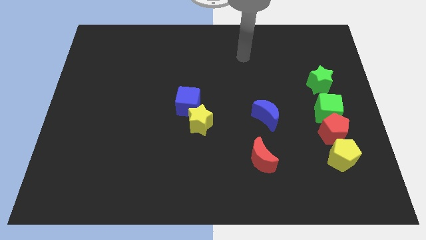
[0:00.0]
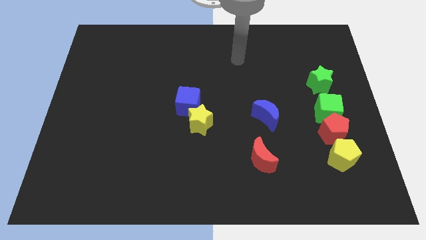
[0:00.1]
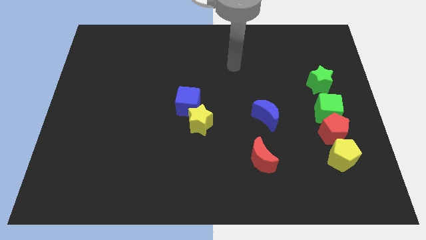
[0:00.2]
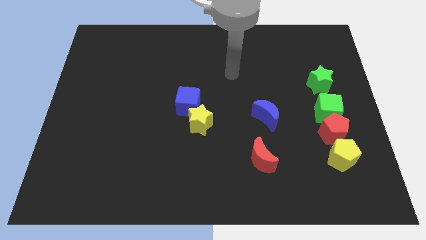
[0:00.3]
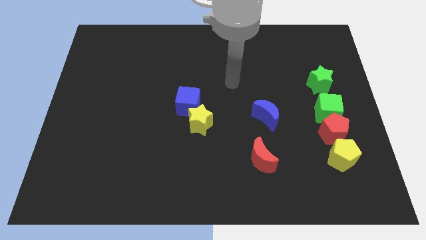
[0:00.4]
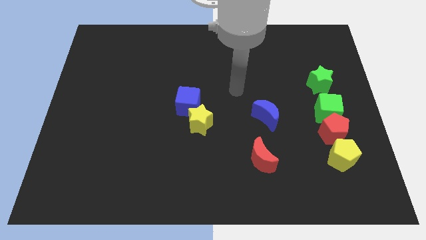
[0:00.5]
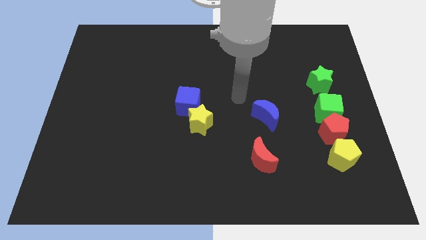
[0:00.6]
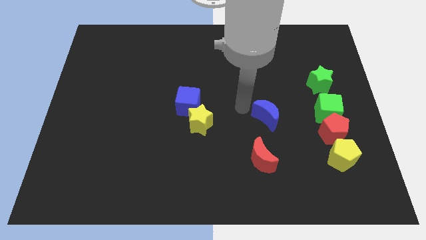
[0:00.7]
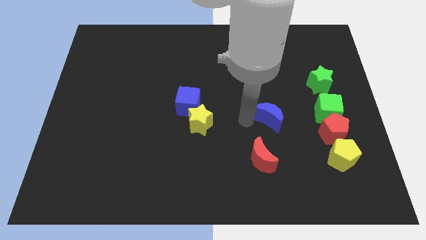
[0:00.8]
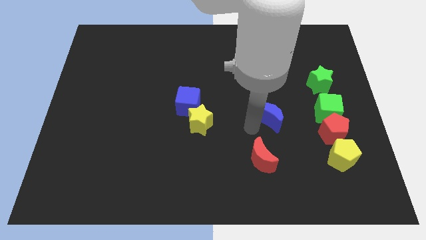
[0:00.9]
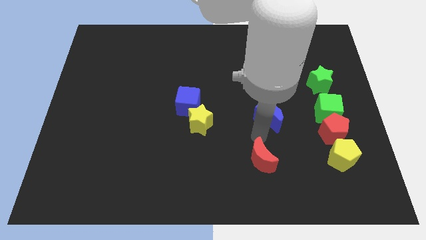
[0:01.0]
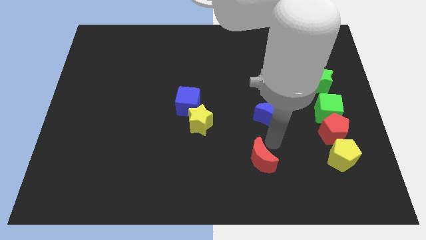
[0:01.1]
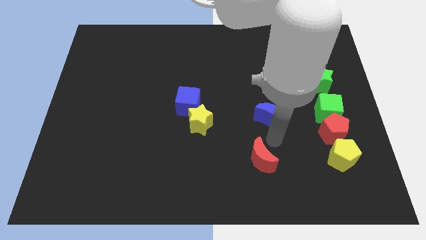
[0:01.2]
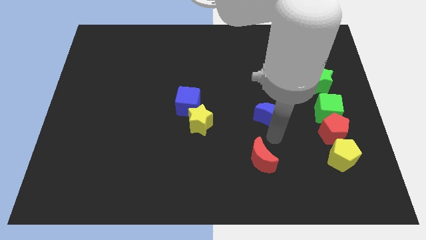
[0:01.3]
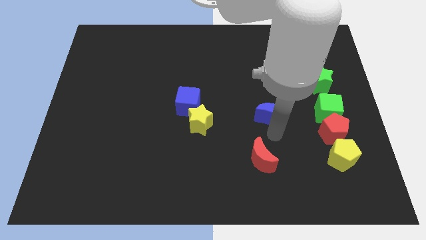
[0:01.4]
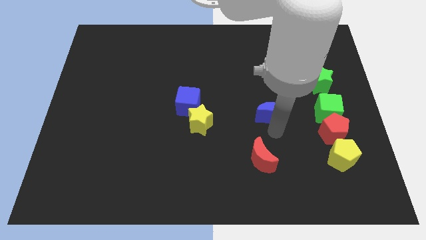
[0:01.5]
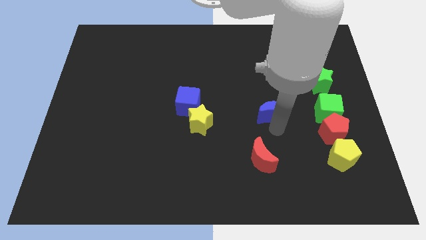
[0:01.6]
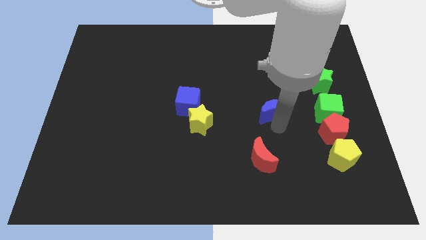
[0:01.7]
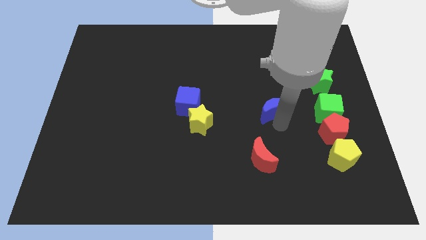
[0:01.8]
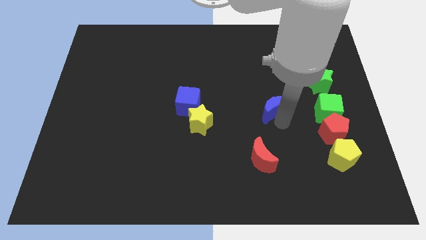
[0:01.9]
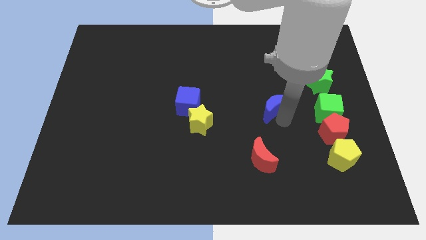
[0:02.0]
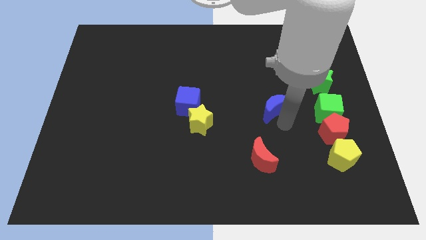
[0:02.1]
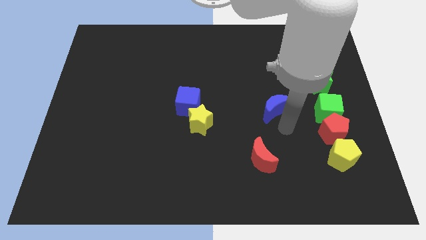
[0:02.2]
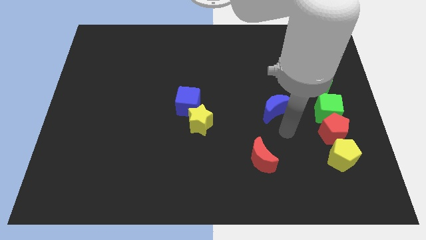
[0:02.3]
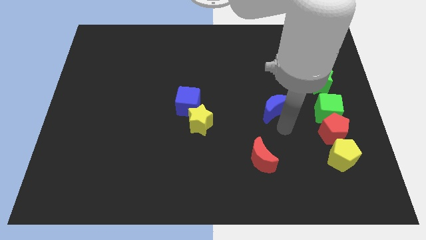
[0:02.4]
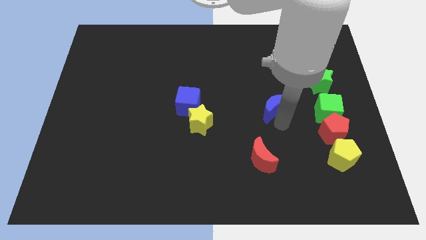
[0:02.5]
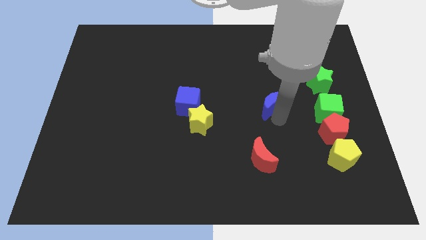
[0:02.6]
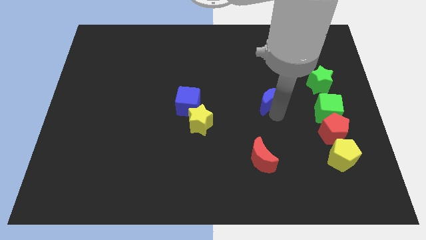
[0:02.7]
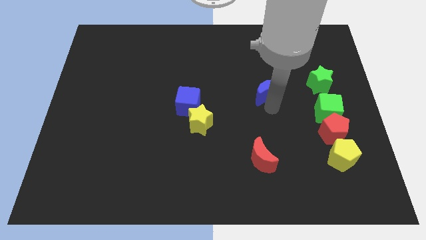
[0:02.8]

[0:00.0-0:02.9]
slightly move the blue moon up

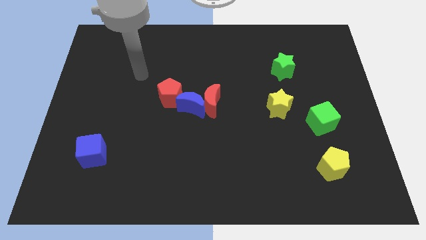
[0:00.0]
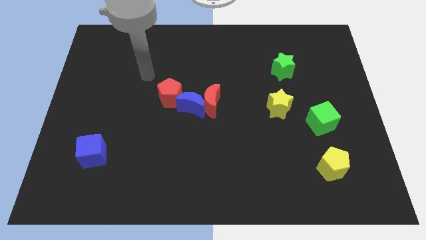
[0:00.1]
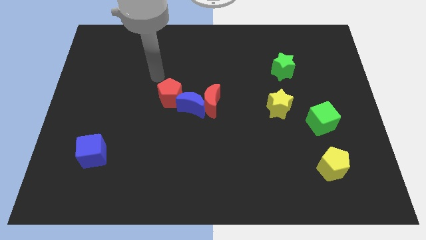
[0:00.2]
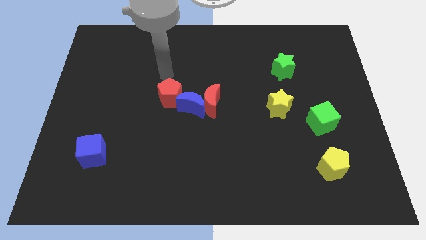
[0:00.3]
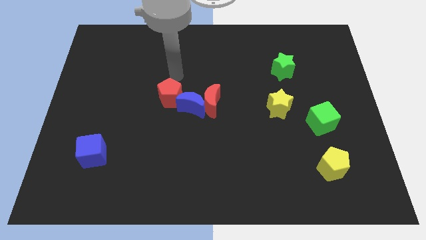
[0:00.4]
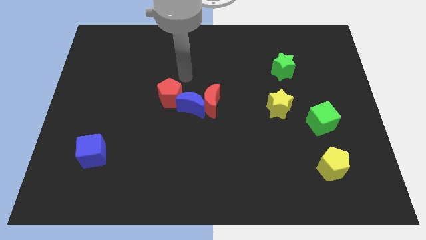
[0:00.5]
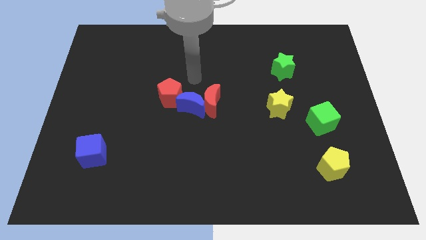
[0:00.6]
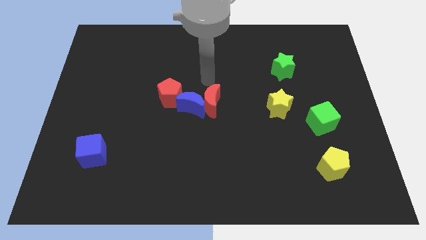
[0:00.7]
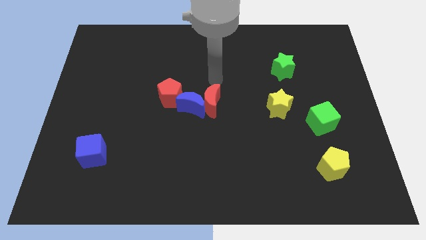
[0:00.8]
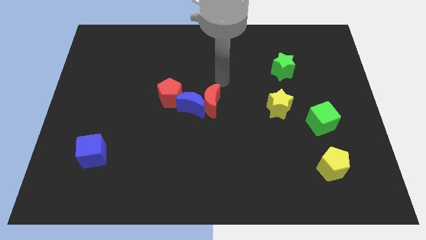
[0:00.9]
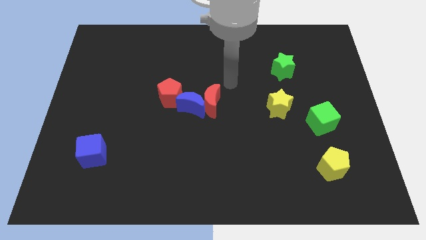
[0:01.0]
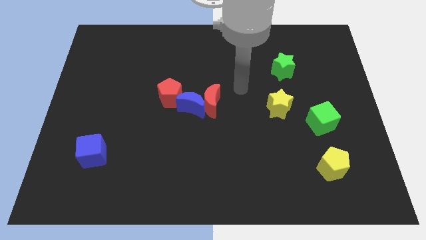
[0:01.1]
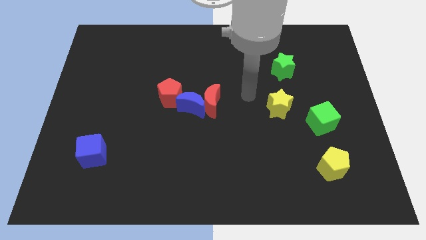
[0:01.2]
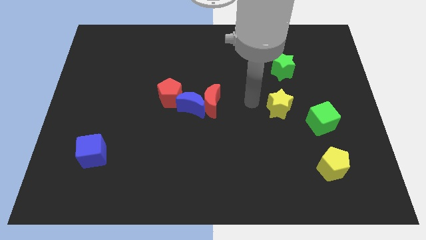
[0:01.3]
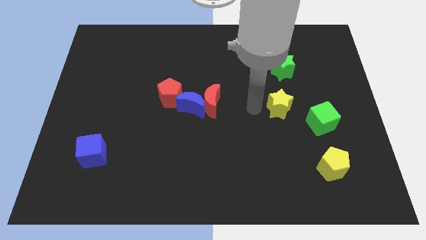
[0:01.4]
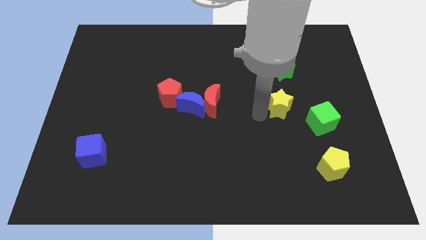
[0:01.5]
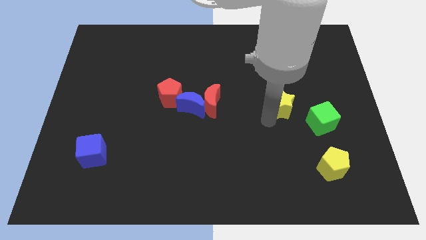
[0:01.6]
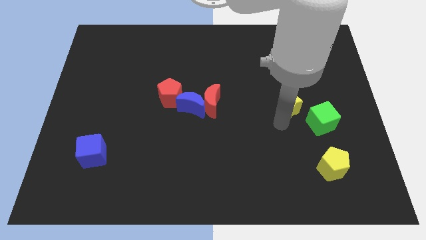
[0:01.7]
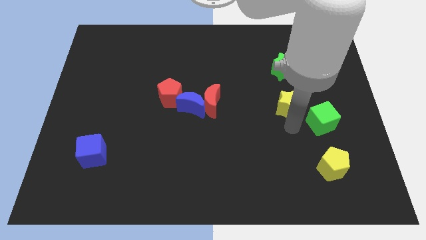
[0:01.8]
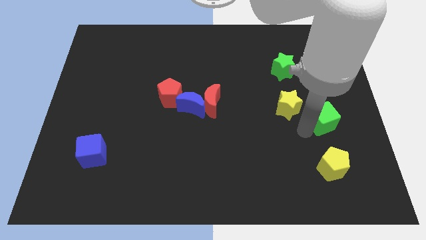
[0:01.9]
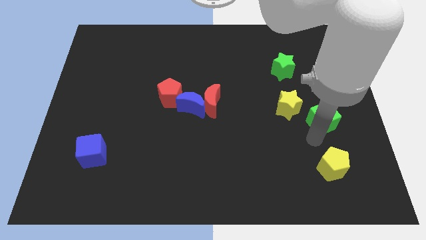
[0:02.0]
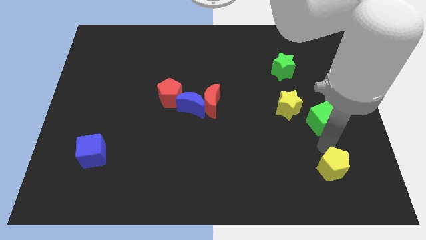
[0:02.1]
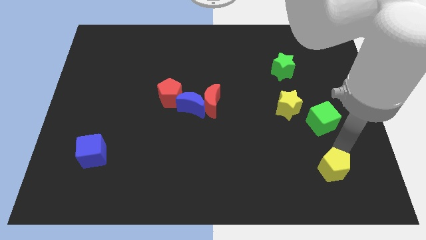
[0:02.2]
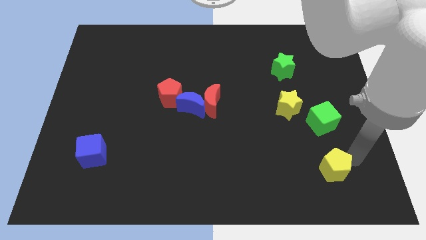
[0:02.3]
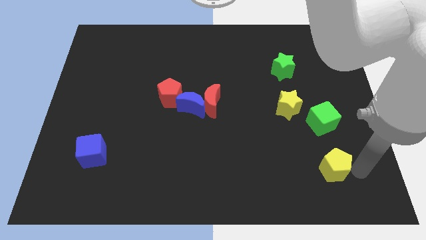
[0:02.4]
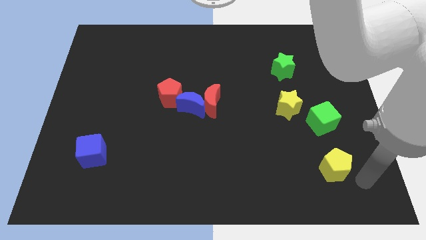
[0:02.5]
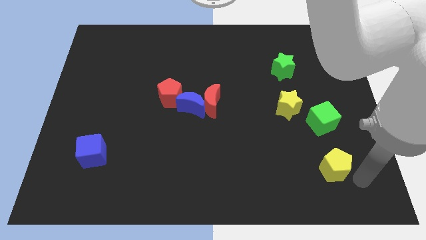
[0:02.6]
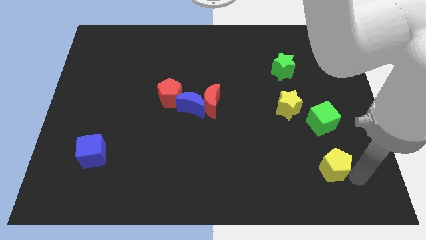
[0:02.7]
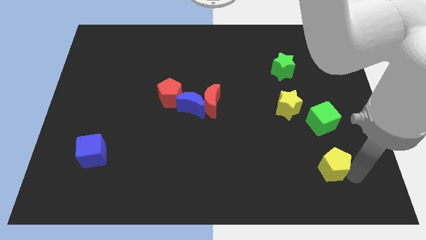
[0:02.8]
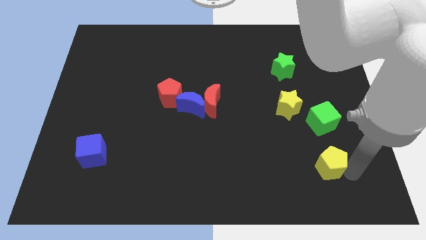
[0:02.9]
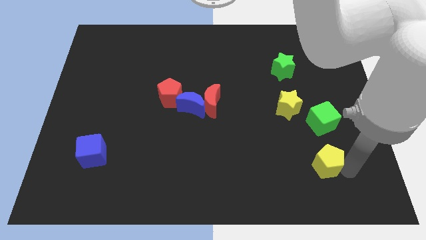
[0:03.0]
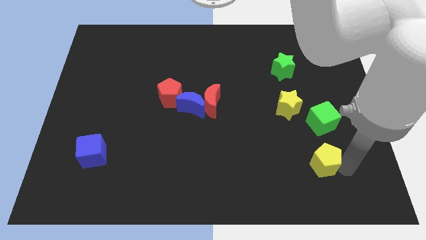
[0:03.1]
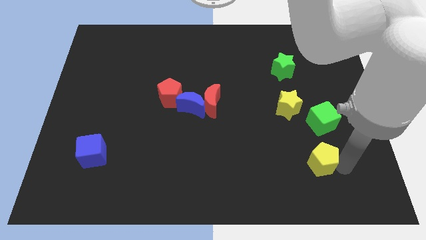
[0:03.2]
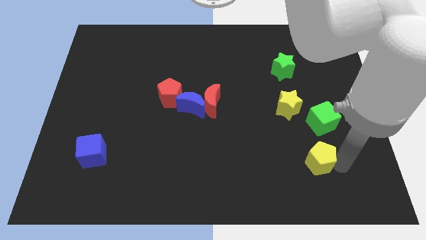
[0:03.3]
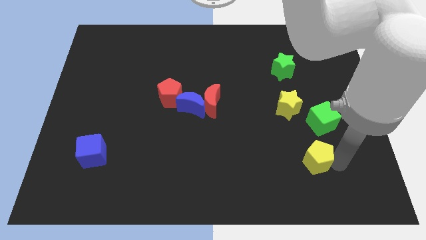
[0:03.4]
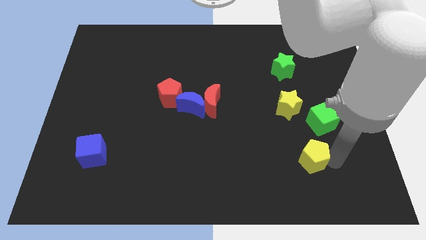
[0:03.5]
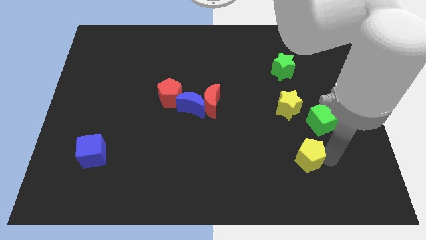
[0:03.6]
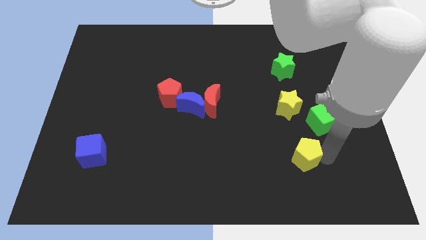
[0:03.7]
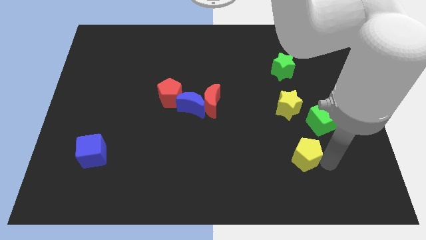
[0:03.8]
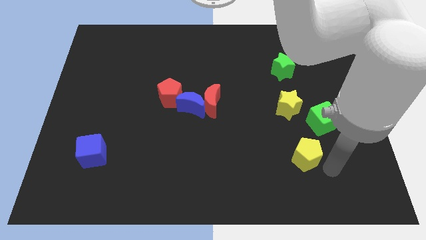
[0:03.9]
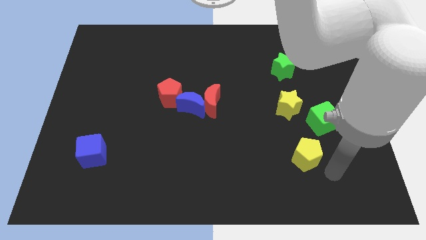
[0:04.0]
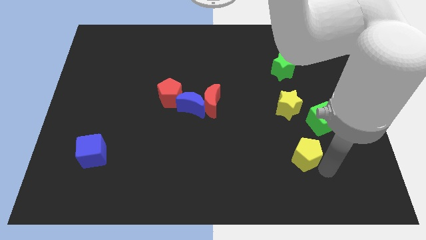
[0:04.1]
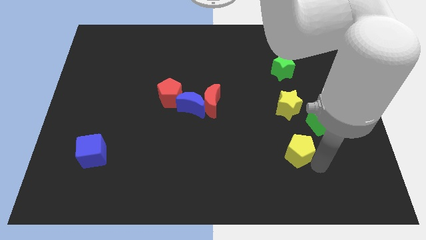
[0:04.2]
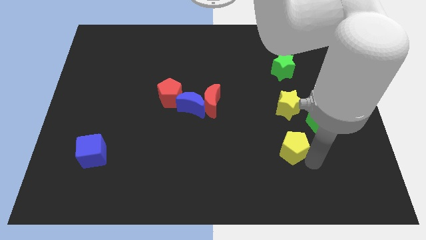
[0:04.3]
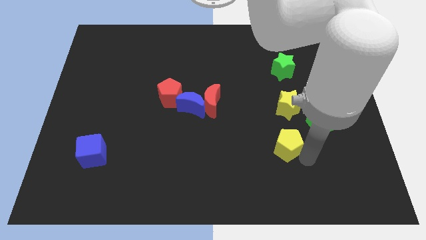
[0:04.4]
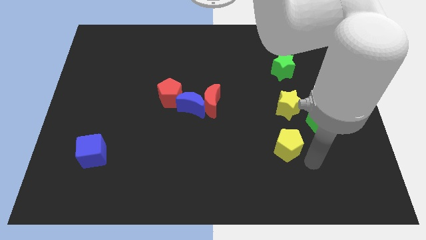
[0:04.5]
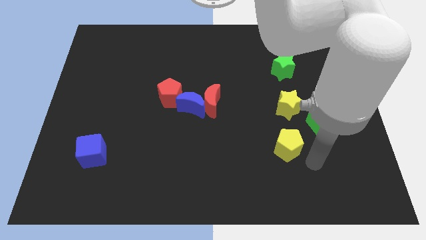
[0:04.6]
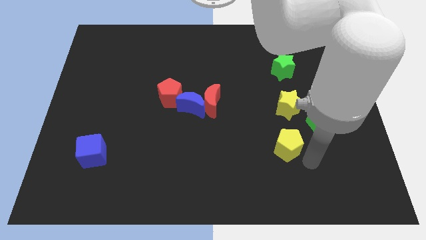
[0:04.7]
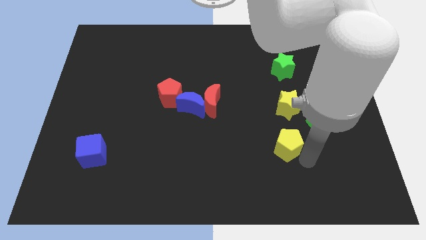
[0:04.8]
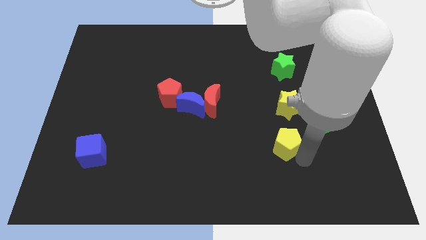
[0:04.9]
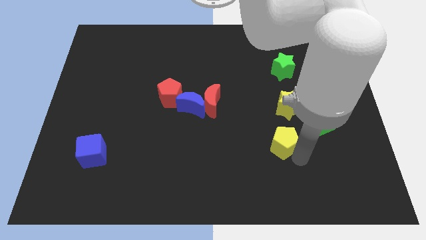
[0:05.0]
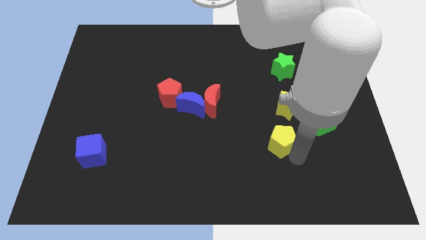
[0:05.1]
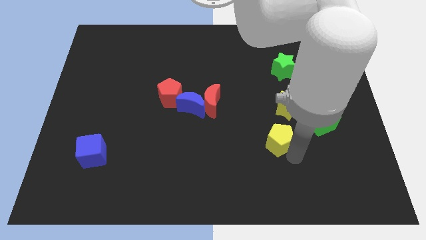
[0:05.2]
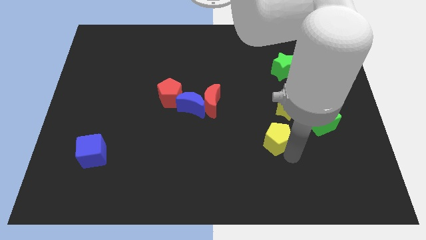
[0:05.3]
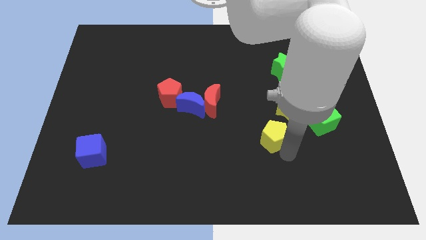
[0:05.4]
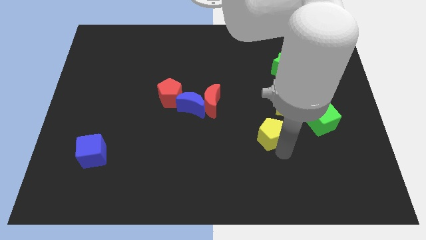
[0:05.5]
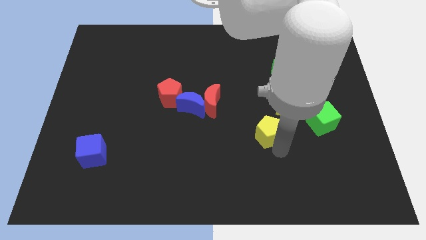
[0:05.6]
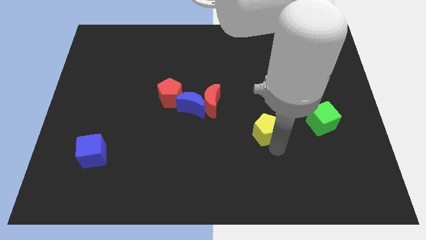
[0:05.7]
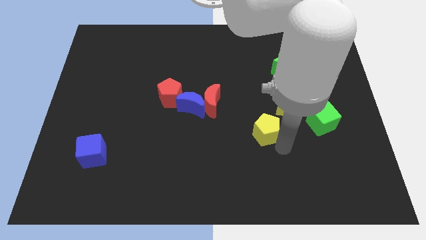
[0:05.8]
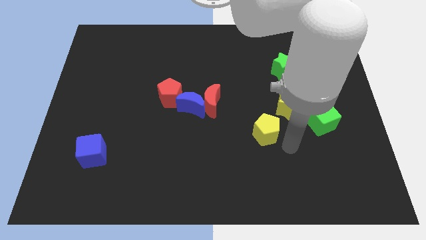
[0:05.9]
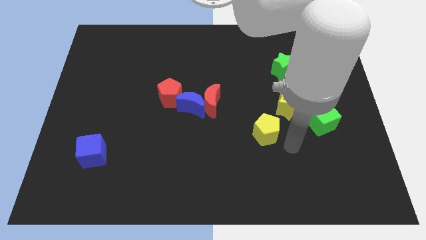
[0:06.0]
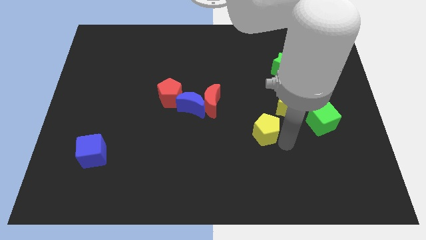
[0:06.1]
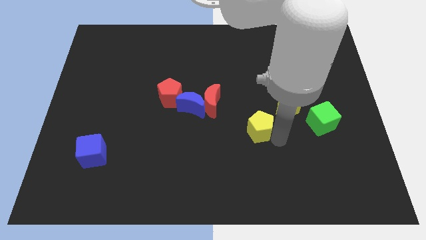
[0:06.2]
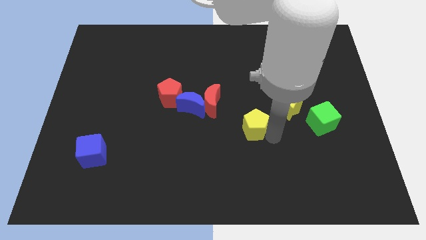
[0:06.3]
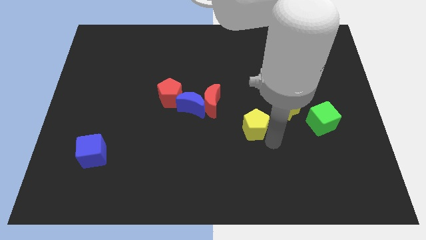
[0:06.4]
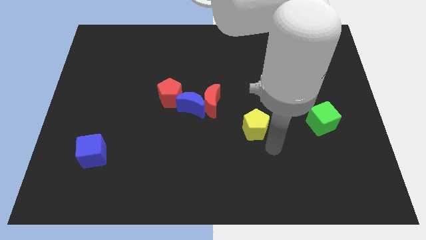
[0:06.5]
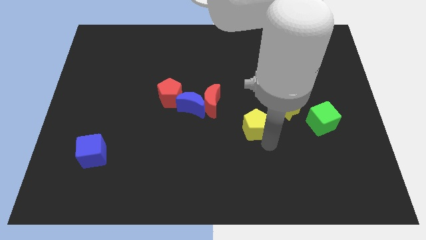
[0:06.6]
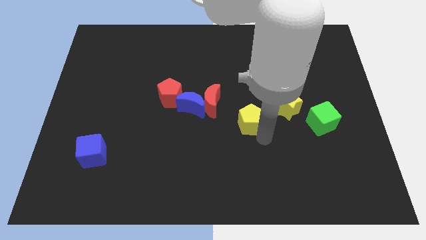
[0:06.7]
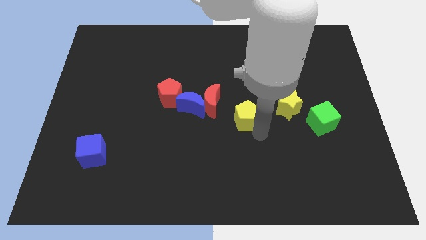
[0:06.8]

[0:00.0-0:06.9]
slide the yellow pentagon diagonally up and left
